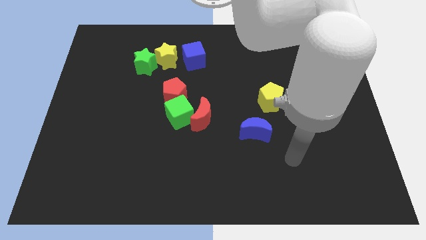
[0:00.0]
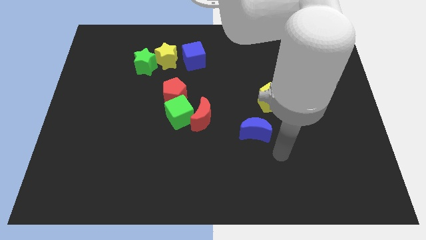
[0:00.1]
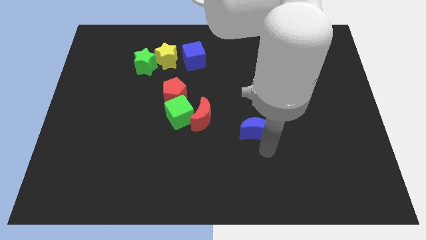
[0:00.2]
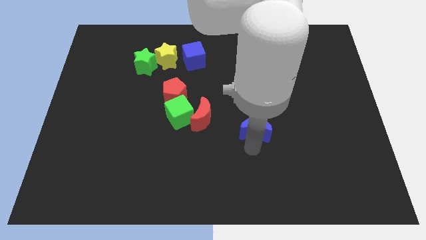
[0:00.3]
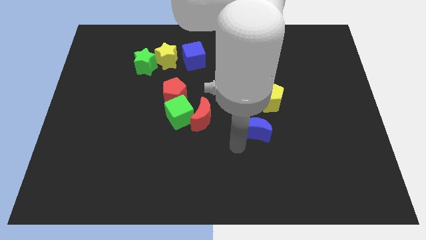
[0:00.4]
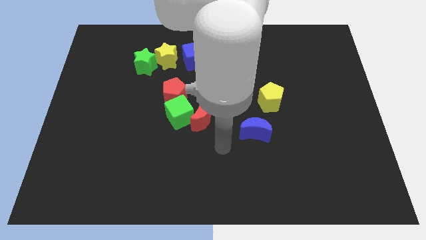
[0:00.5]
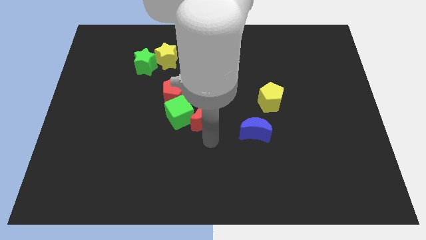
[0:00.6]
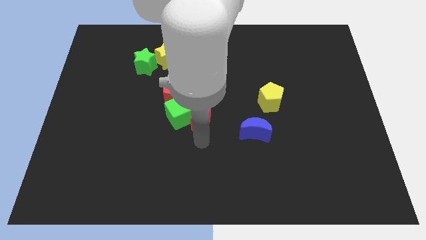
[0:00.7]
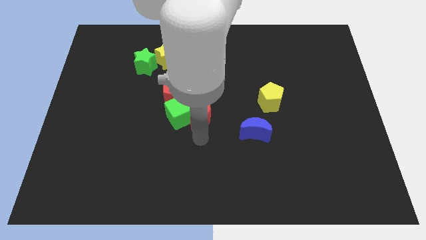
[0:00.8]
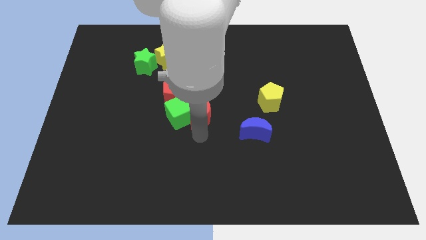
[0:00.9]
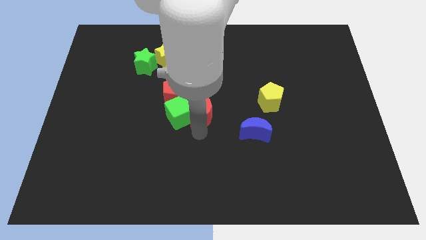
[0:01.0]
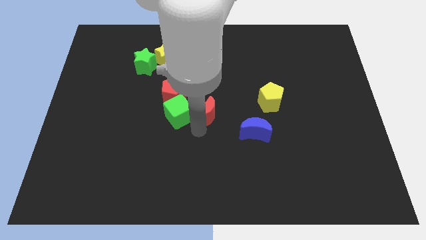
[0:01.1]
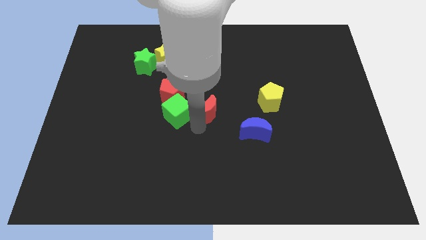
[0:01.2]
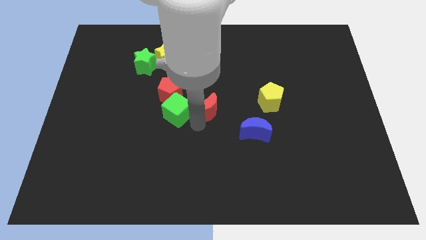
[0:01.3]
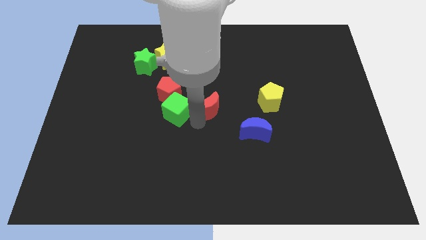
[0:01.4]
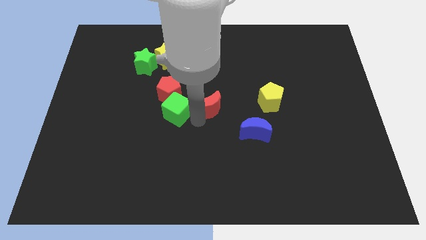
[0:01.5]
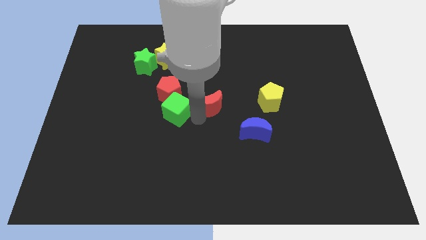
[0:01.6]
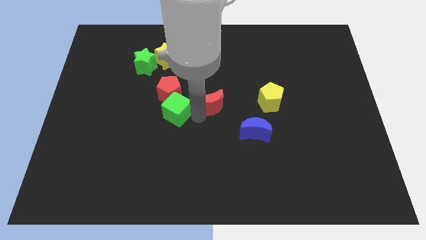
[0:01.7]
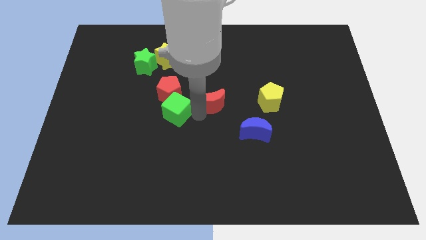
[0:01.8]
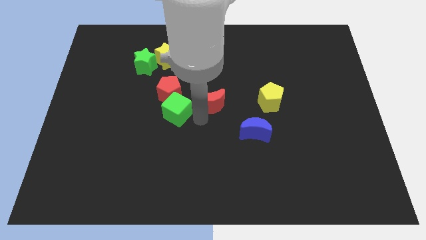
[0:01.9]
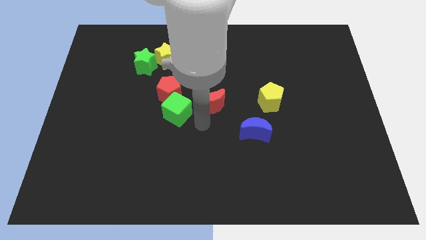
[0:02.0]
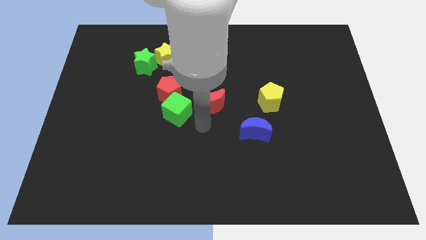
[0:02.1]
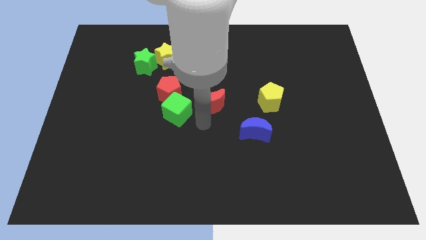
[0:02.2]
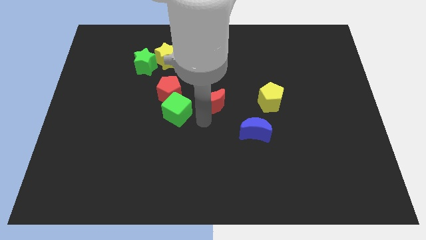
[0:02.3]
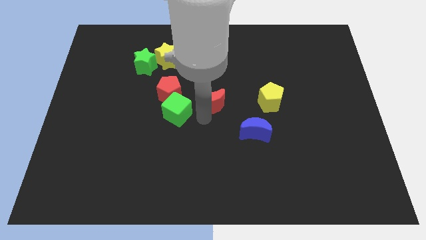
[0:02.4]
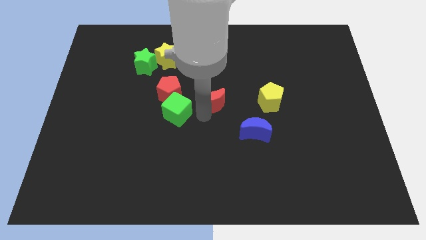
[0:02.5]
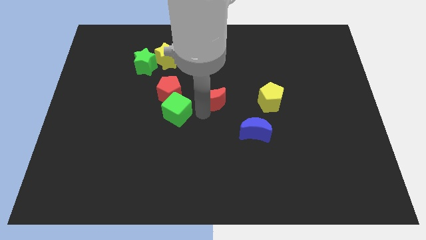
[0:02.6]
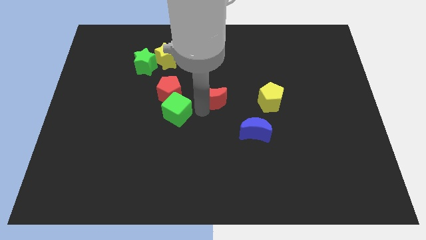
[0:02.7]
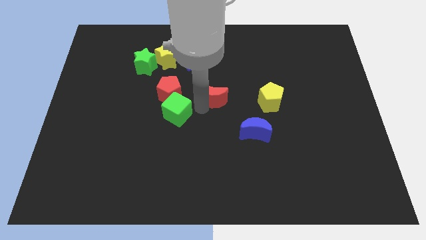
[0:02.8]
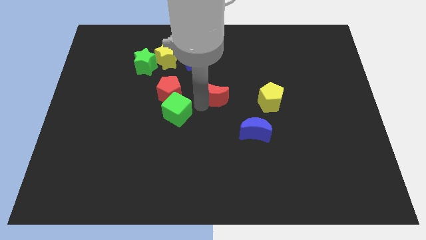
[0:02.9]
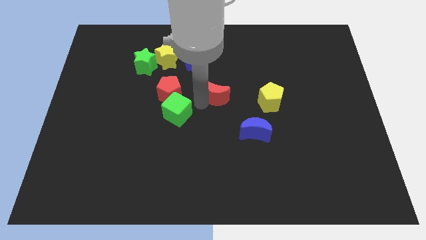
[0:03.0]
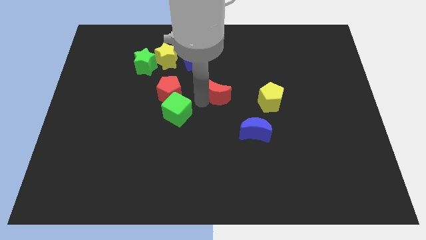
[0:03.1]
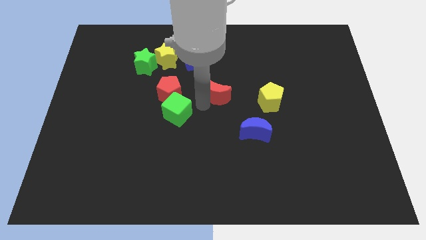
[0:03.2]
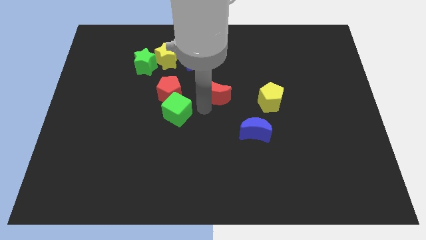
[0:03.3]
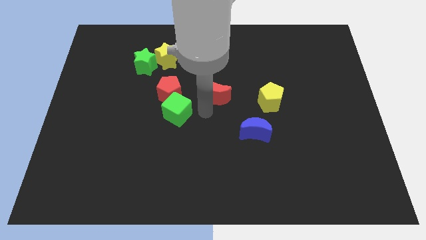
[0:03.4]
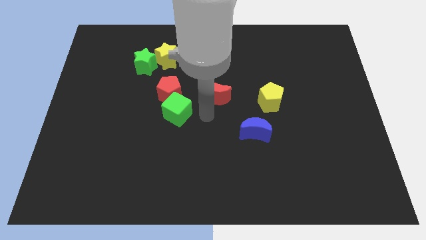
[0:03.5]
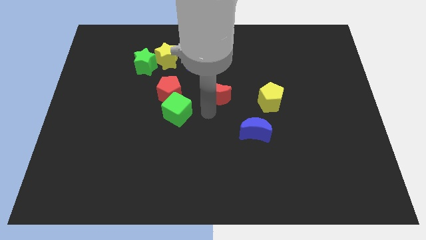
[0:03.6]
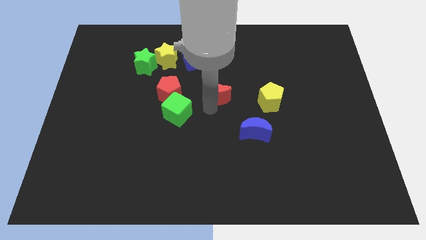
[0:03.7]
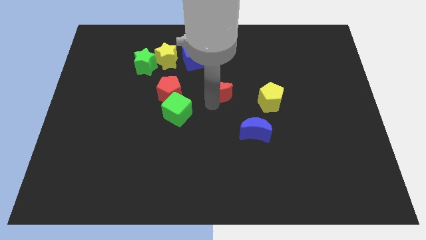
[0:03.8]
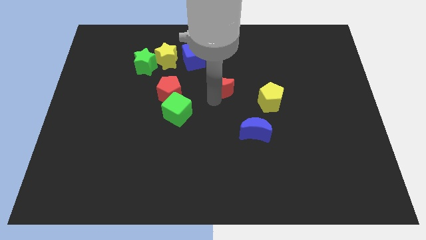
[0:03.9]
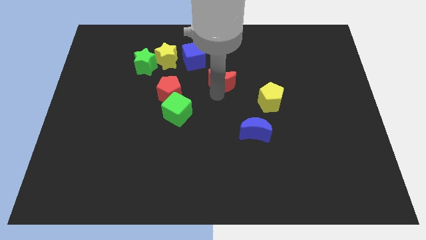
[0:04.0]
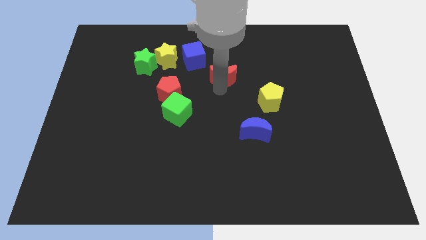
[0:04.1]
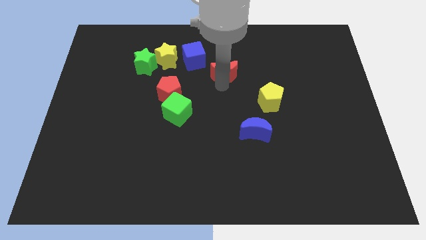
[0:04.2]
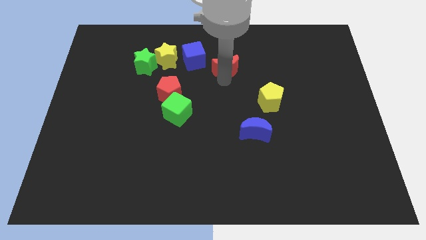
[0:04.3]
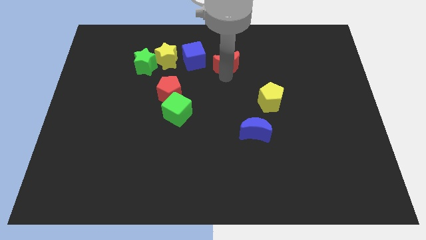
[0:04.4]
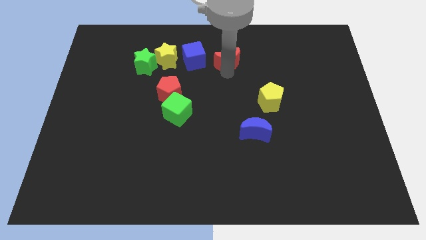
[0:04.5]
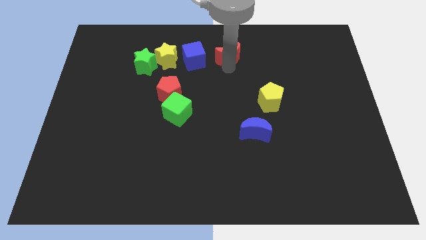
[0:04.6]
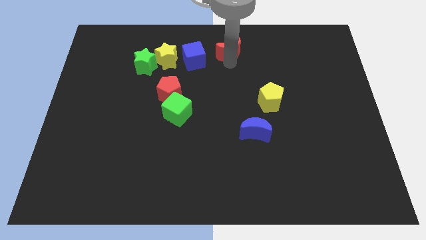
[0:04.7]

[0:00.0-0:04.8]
move the red moon to the top

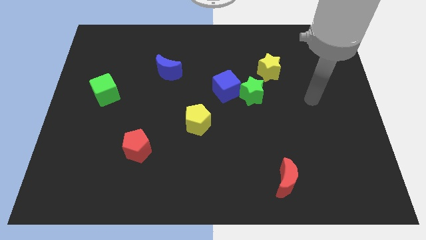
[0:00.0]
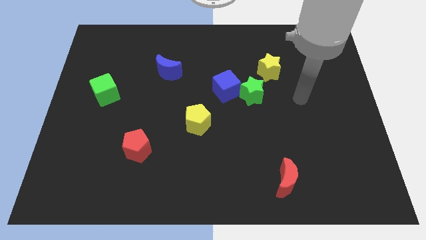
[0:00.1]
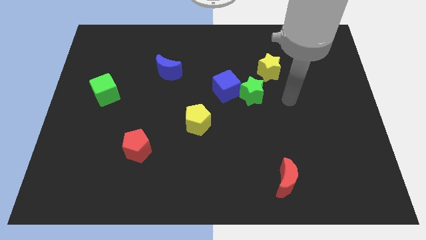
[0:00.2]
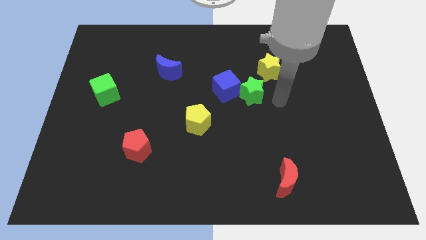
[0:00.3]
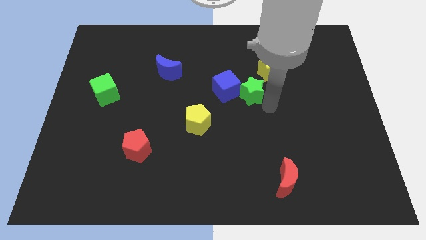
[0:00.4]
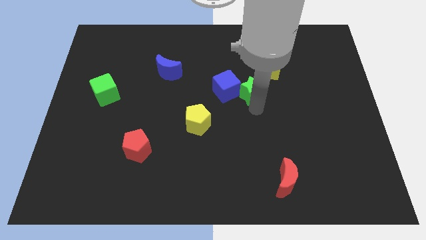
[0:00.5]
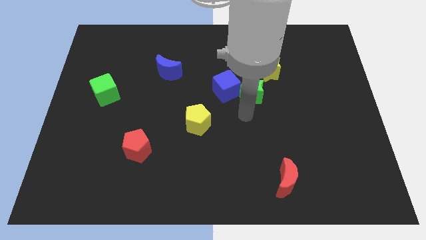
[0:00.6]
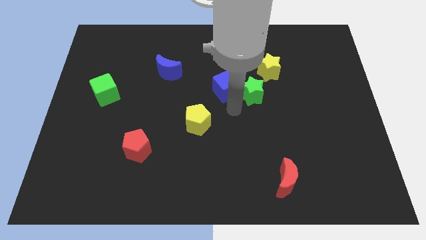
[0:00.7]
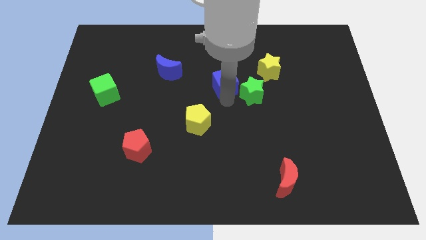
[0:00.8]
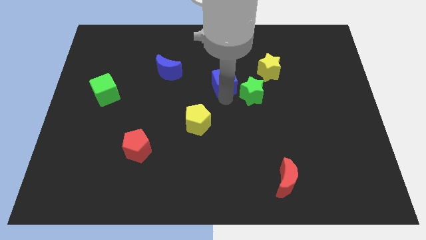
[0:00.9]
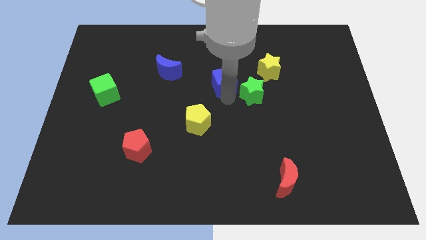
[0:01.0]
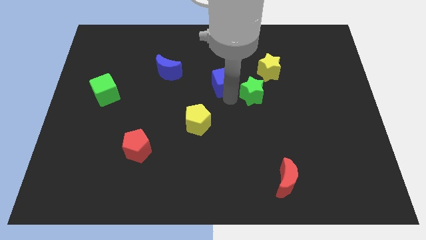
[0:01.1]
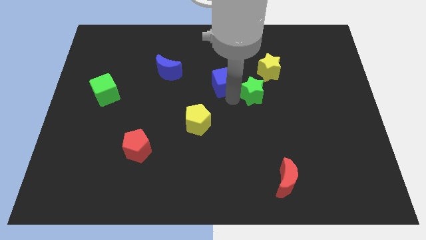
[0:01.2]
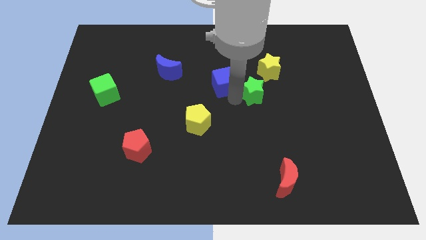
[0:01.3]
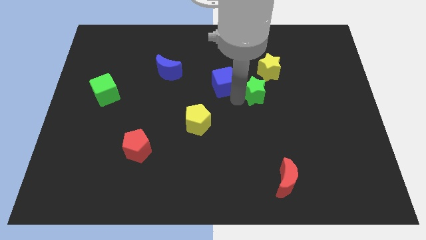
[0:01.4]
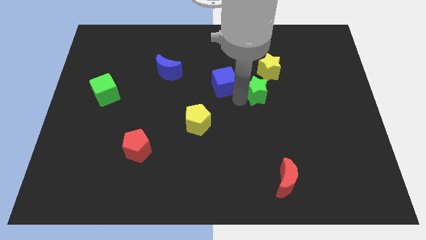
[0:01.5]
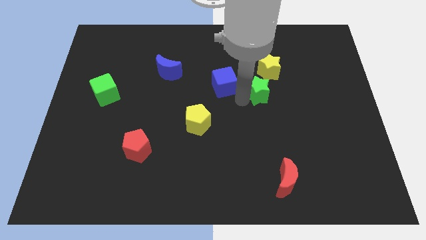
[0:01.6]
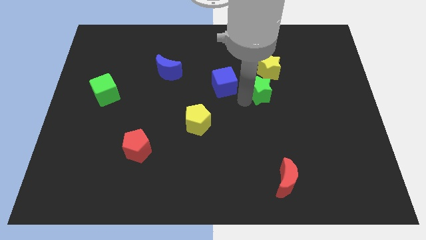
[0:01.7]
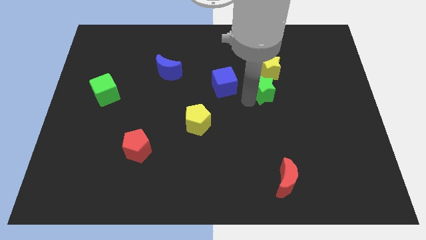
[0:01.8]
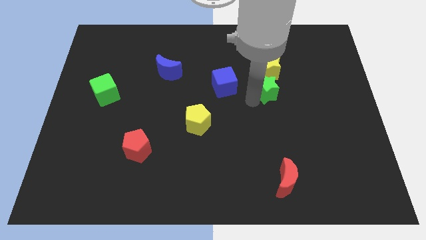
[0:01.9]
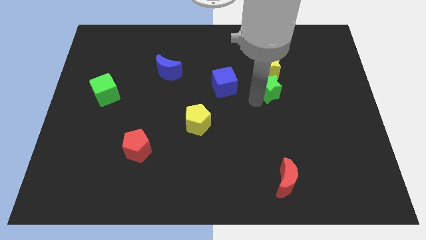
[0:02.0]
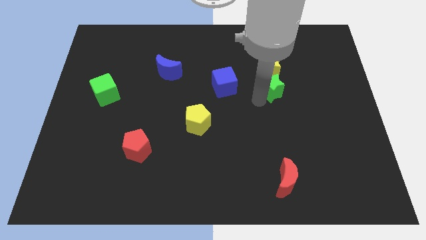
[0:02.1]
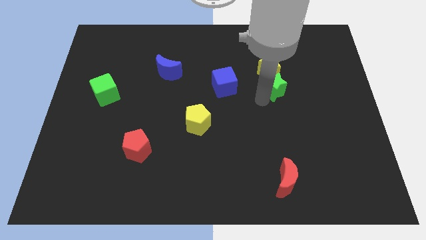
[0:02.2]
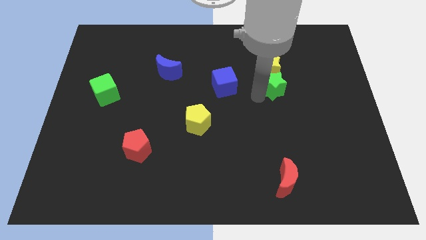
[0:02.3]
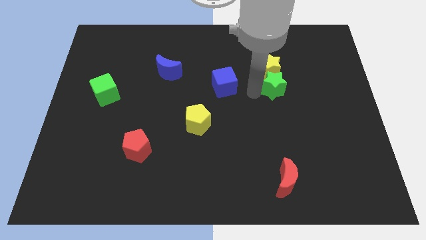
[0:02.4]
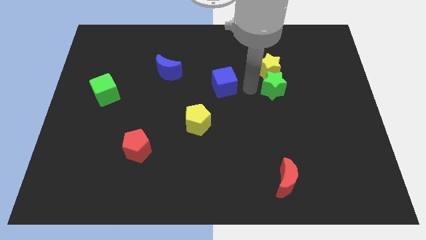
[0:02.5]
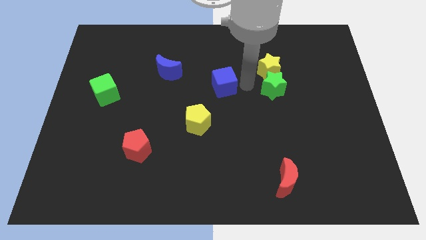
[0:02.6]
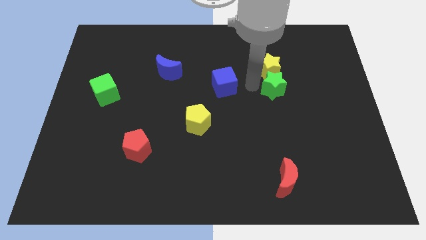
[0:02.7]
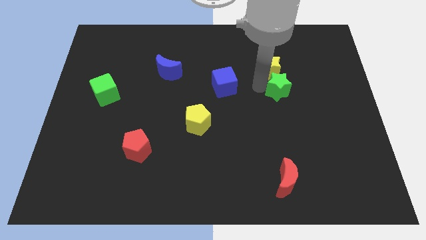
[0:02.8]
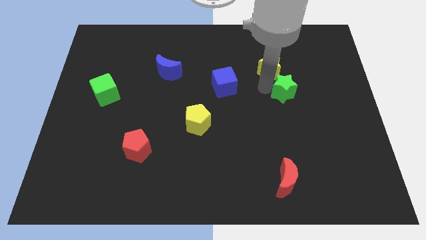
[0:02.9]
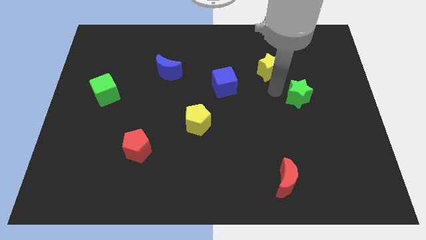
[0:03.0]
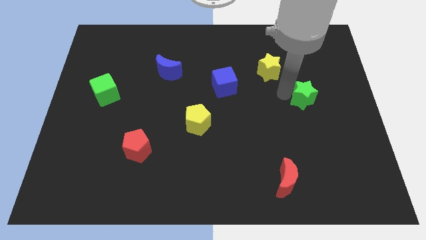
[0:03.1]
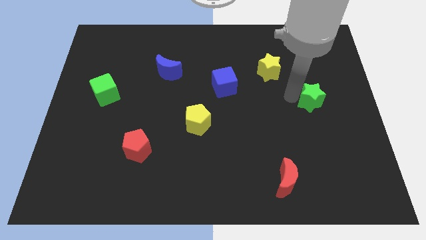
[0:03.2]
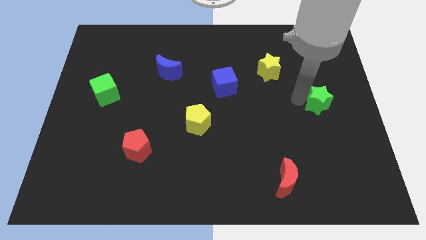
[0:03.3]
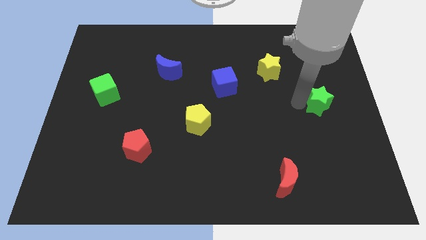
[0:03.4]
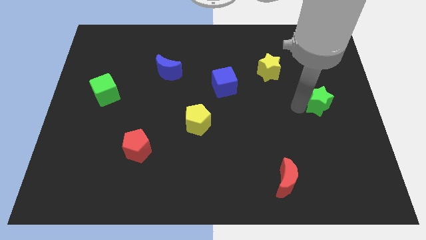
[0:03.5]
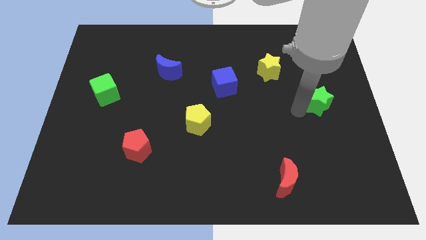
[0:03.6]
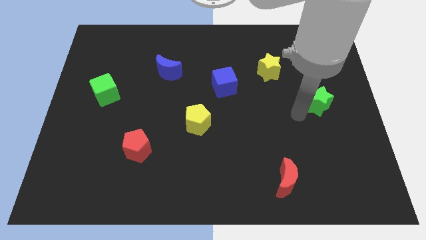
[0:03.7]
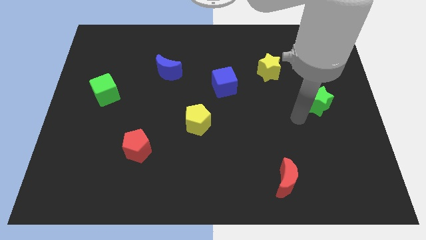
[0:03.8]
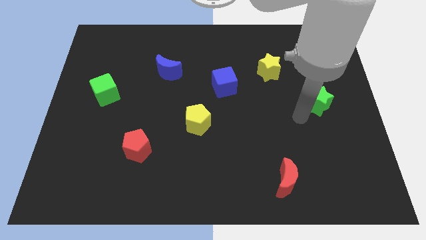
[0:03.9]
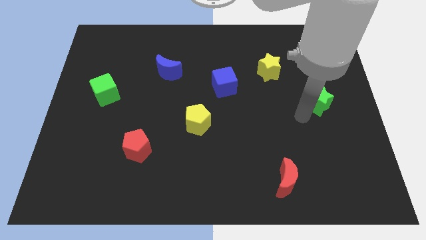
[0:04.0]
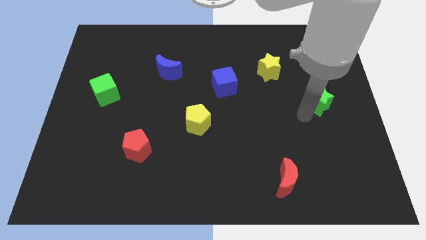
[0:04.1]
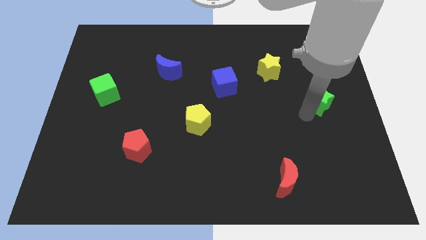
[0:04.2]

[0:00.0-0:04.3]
put the green star to the center right
